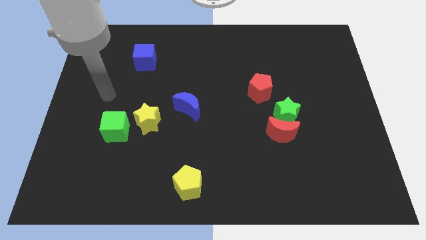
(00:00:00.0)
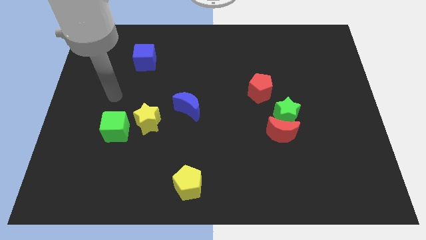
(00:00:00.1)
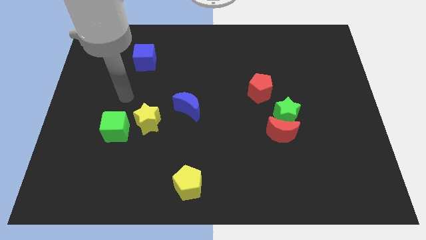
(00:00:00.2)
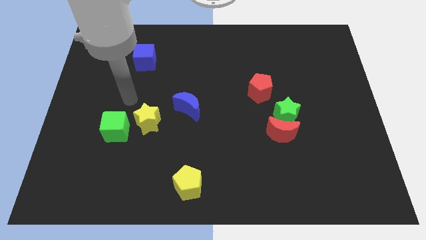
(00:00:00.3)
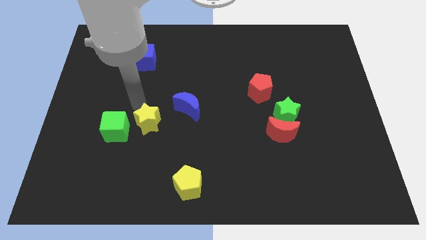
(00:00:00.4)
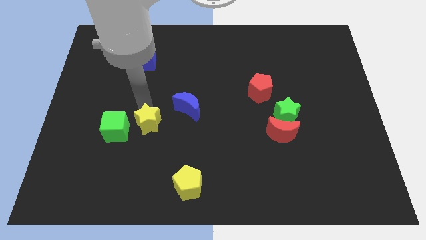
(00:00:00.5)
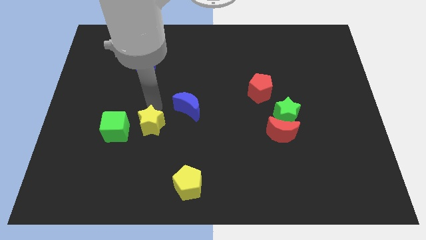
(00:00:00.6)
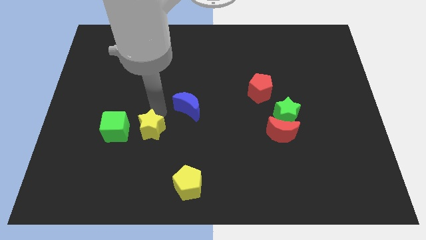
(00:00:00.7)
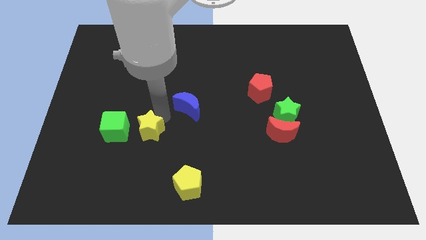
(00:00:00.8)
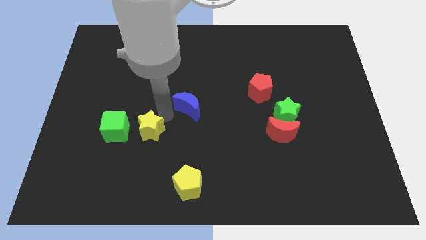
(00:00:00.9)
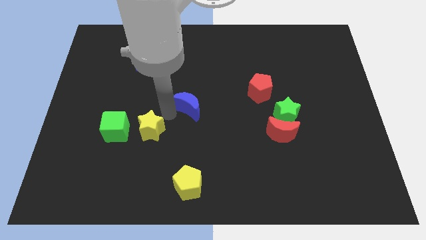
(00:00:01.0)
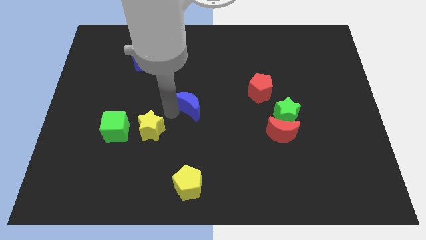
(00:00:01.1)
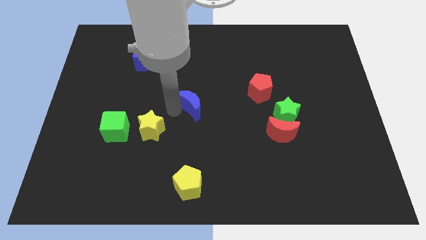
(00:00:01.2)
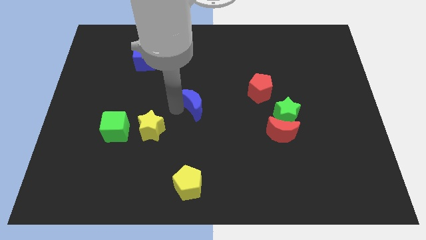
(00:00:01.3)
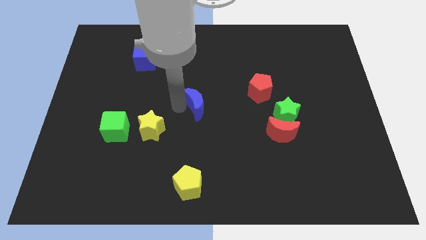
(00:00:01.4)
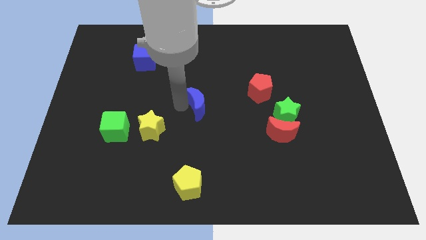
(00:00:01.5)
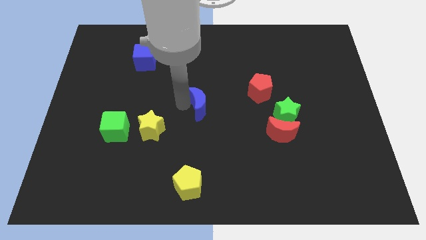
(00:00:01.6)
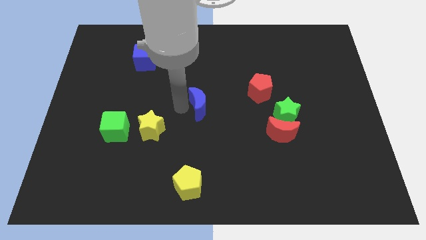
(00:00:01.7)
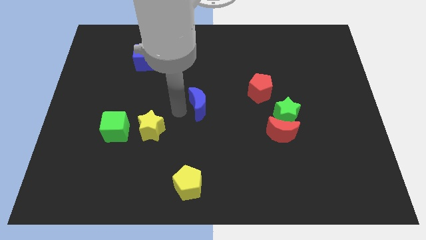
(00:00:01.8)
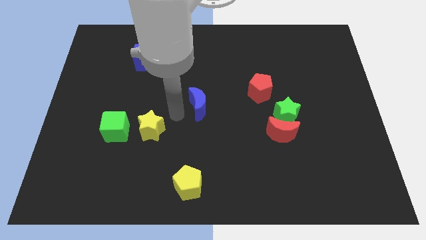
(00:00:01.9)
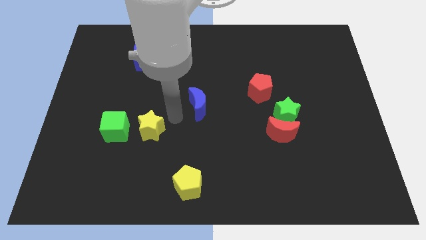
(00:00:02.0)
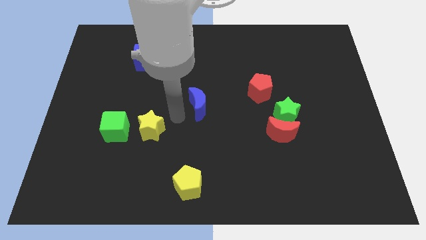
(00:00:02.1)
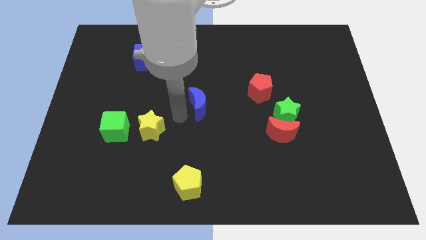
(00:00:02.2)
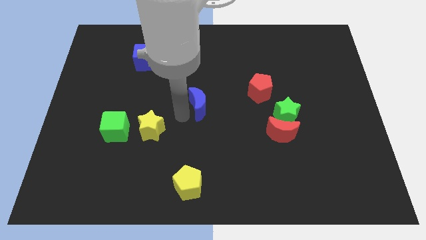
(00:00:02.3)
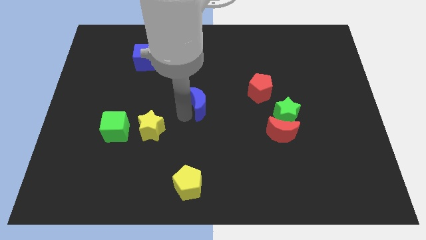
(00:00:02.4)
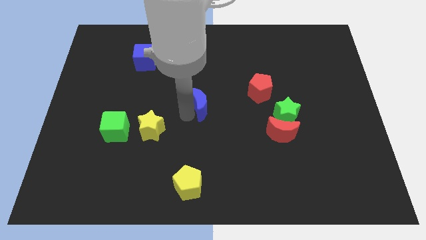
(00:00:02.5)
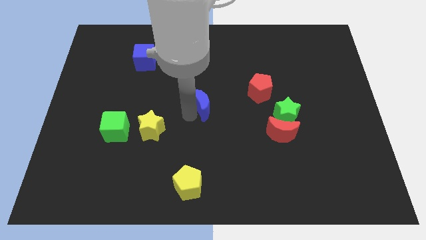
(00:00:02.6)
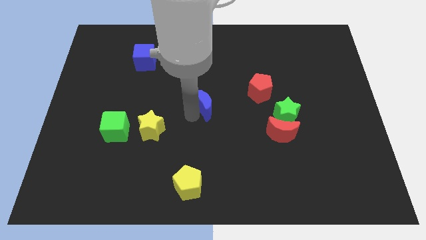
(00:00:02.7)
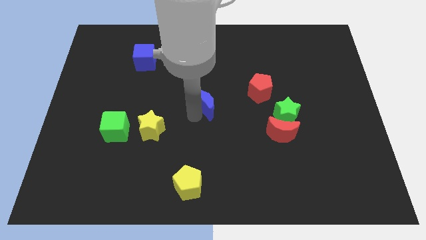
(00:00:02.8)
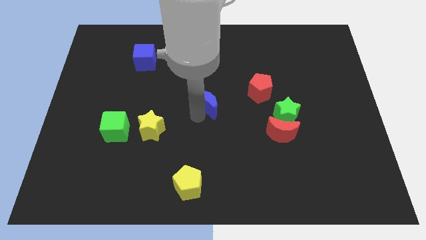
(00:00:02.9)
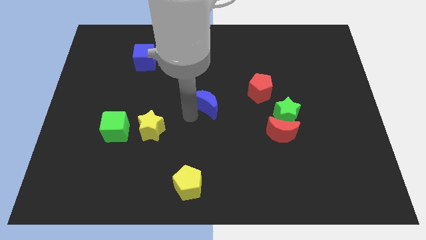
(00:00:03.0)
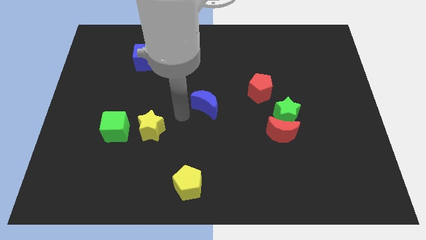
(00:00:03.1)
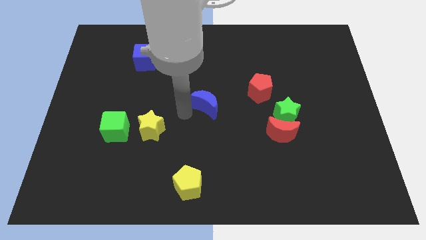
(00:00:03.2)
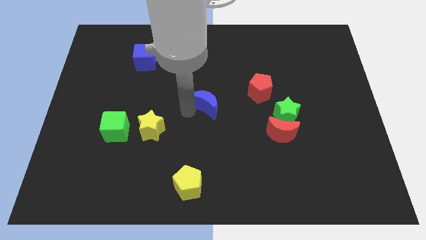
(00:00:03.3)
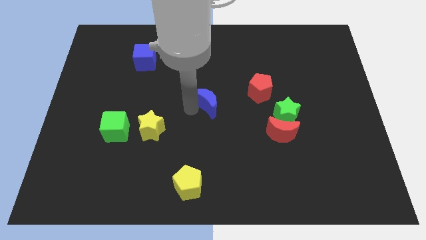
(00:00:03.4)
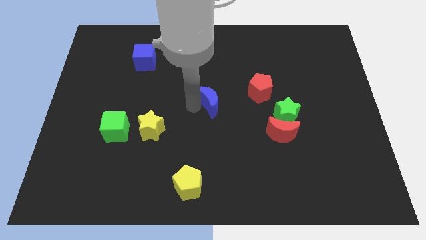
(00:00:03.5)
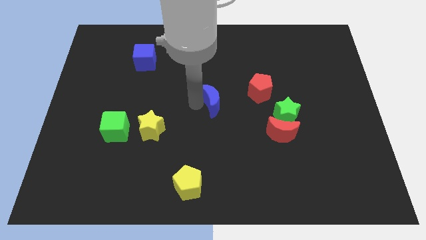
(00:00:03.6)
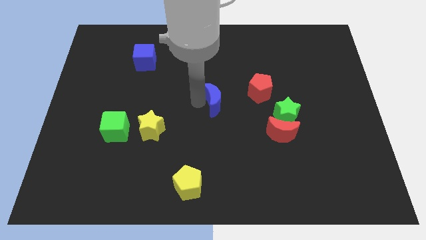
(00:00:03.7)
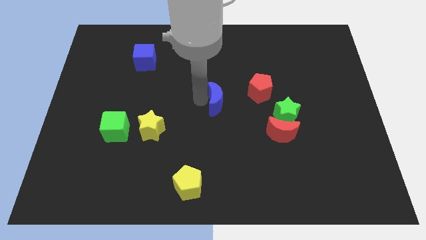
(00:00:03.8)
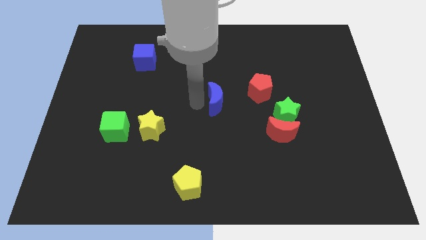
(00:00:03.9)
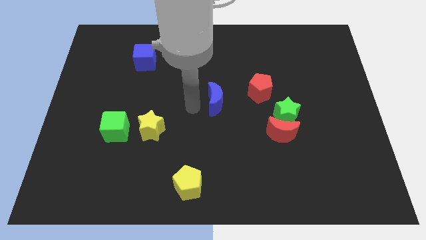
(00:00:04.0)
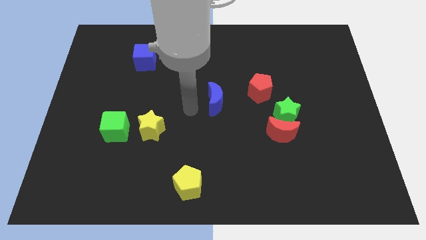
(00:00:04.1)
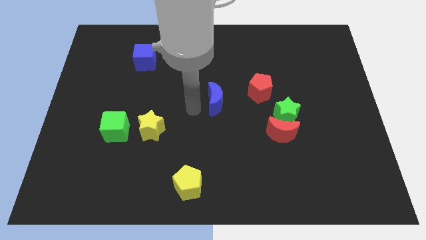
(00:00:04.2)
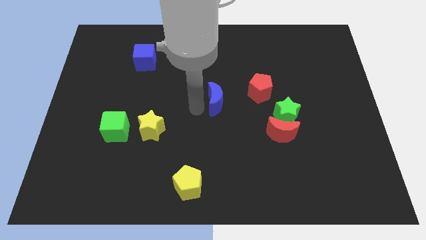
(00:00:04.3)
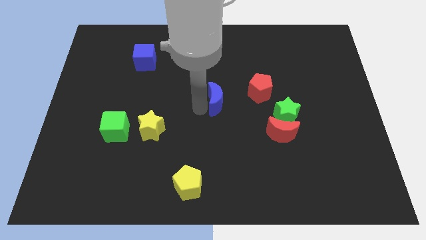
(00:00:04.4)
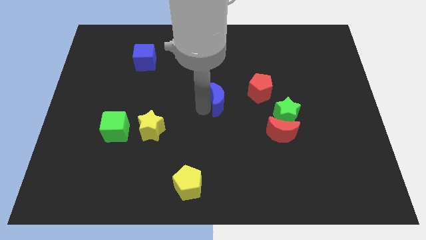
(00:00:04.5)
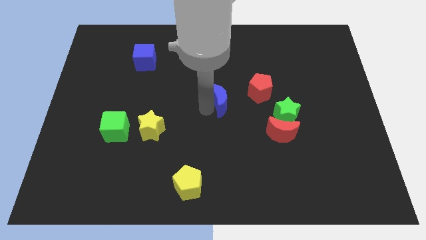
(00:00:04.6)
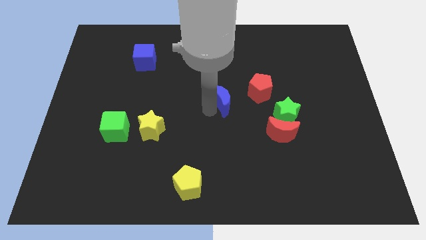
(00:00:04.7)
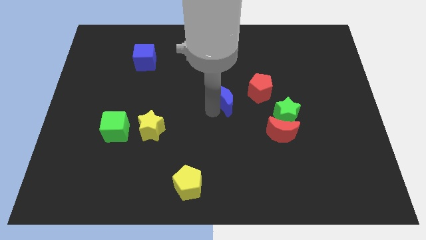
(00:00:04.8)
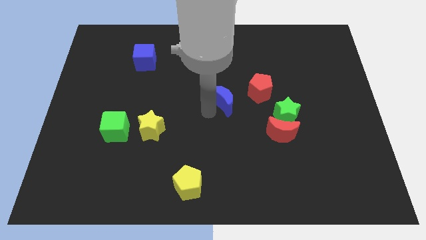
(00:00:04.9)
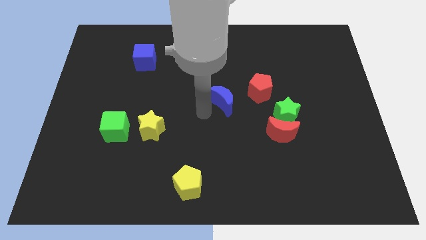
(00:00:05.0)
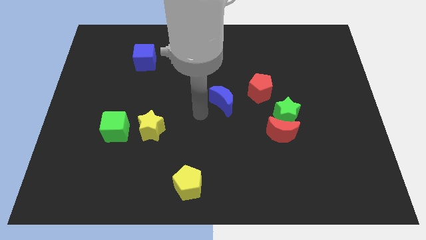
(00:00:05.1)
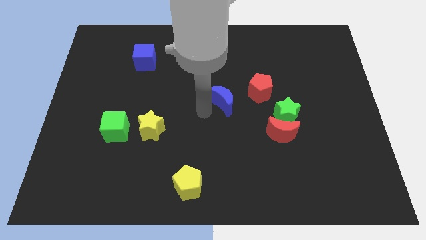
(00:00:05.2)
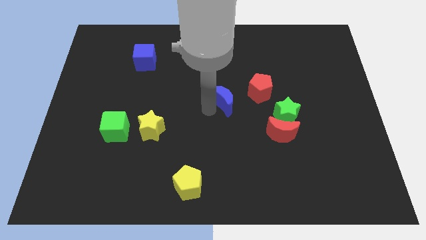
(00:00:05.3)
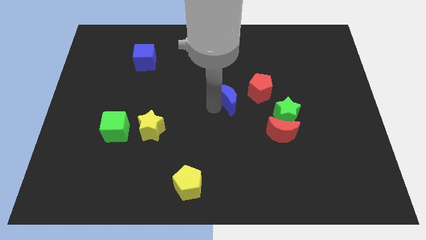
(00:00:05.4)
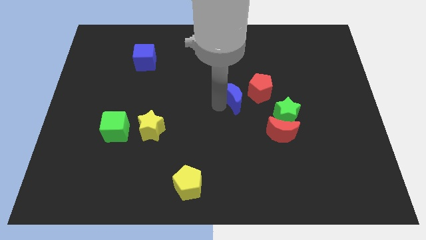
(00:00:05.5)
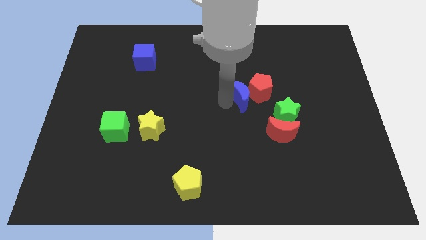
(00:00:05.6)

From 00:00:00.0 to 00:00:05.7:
push the blue moon to the red pentagon

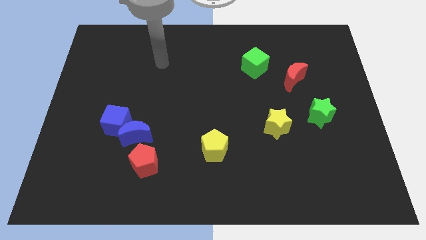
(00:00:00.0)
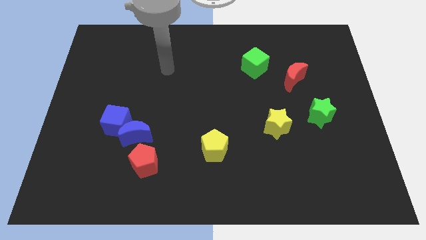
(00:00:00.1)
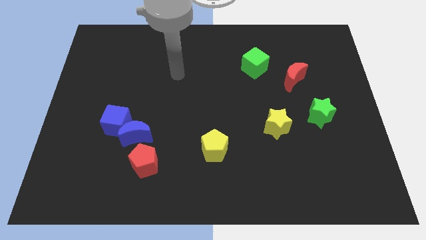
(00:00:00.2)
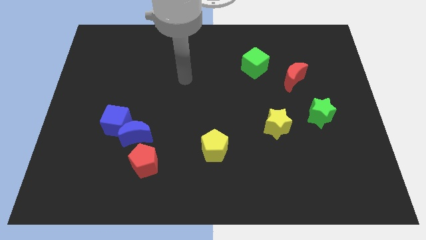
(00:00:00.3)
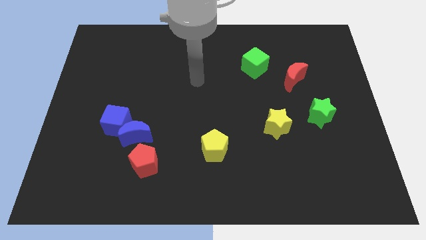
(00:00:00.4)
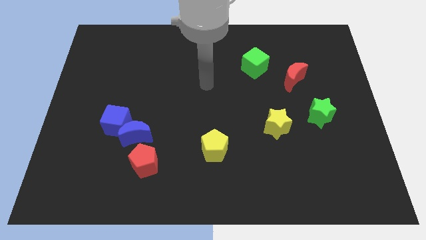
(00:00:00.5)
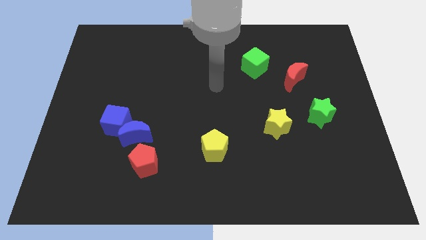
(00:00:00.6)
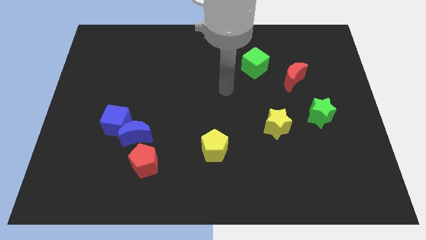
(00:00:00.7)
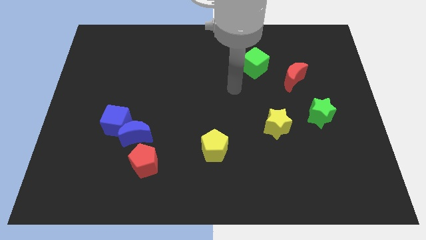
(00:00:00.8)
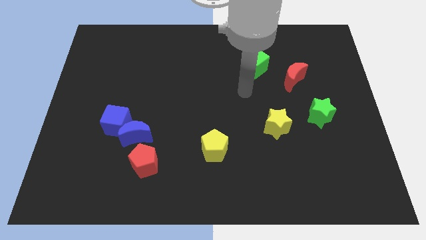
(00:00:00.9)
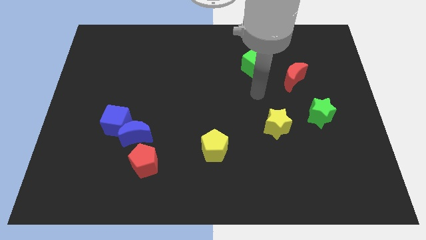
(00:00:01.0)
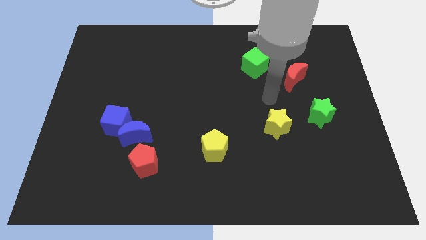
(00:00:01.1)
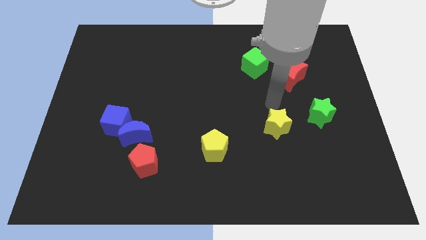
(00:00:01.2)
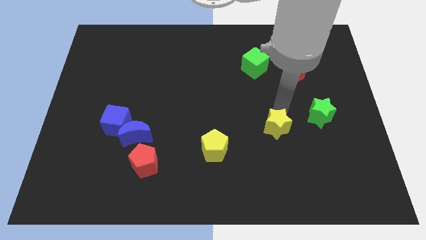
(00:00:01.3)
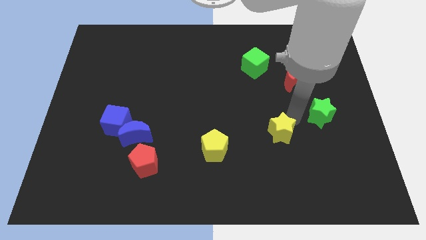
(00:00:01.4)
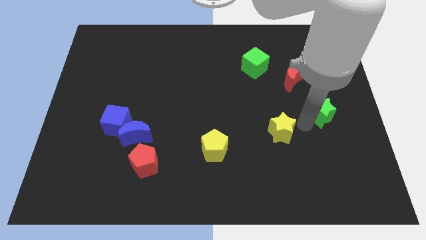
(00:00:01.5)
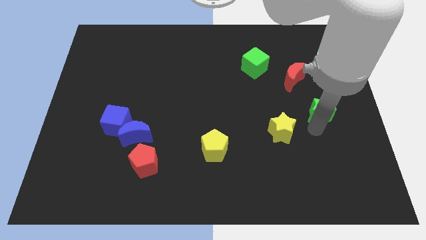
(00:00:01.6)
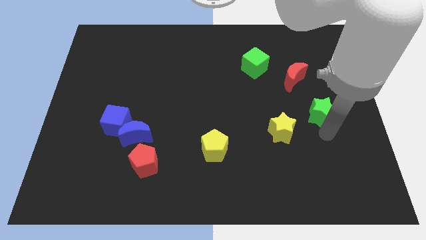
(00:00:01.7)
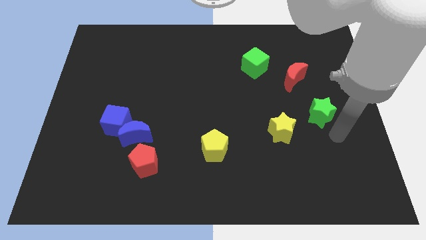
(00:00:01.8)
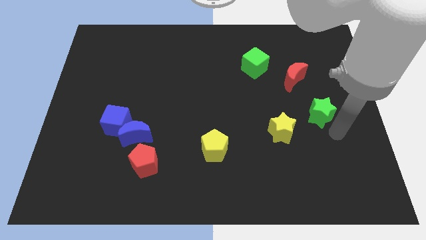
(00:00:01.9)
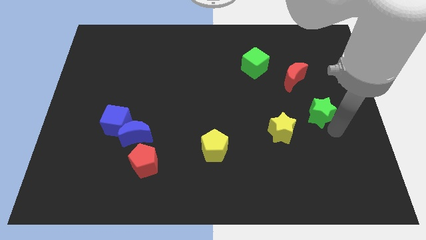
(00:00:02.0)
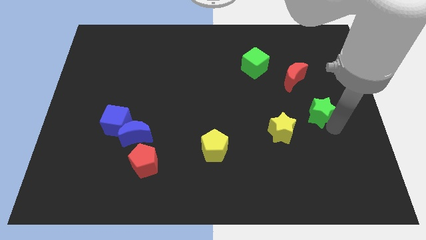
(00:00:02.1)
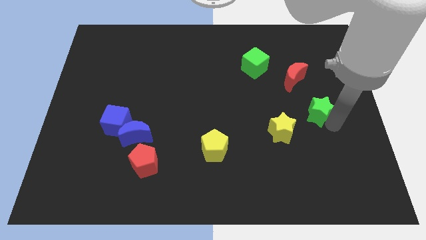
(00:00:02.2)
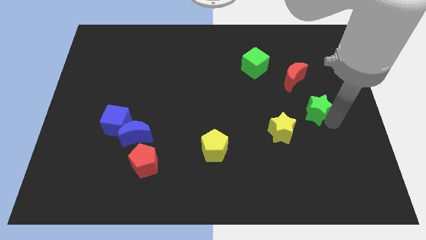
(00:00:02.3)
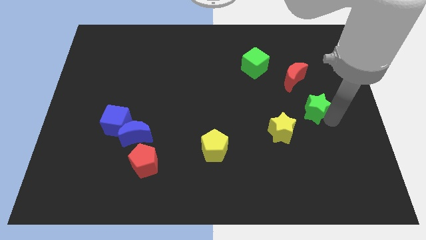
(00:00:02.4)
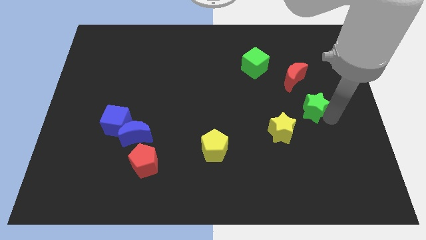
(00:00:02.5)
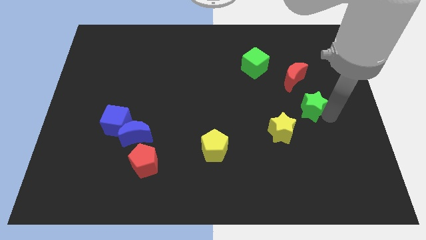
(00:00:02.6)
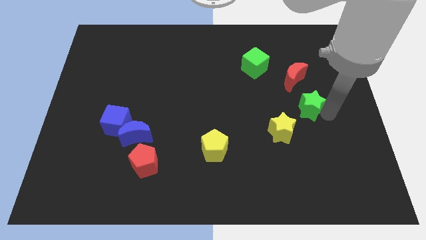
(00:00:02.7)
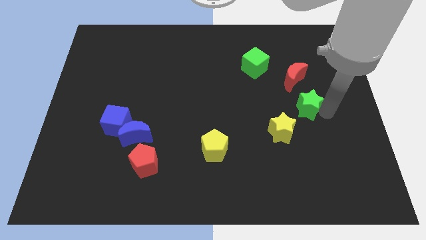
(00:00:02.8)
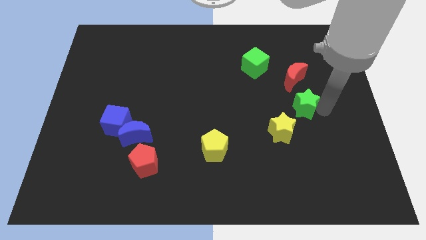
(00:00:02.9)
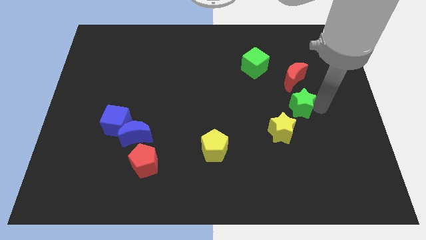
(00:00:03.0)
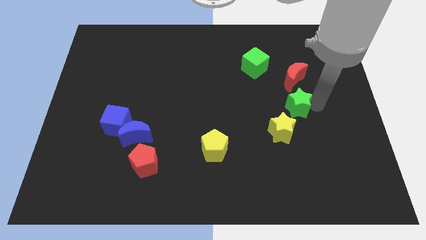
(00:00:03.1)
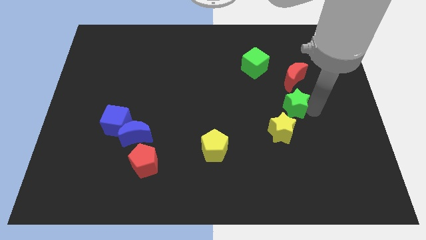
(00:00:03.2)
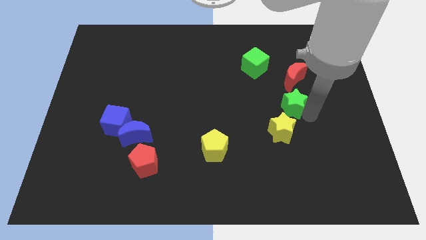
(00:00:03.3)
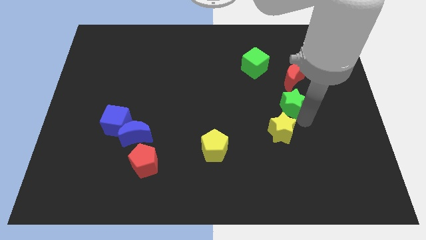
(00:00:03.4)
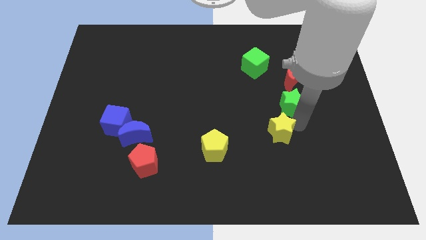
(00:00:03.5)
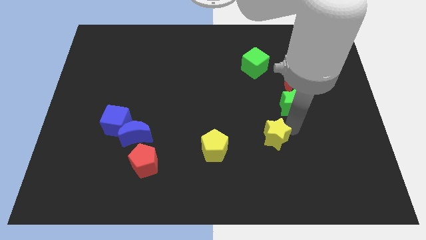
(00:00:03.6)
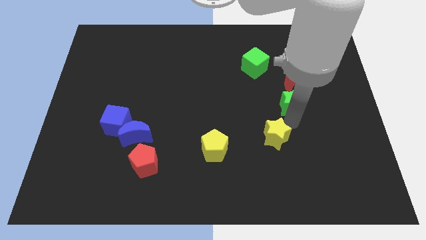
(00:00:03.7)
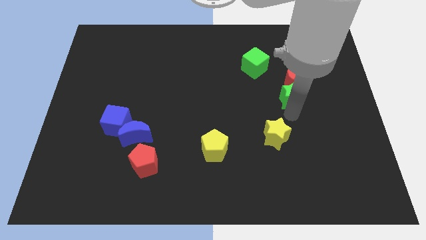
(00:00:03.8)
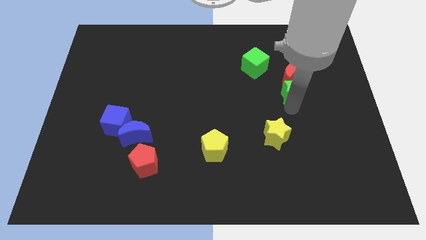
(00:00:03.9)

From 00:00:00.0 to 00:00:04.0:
move the green star close to the red moon
